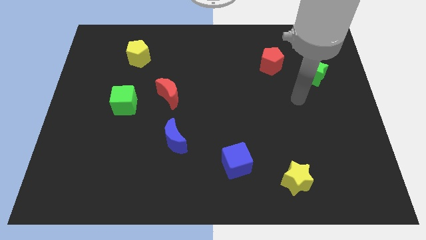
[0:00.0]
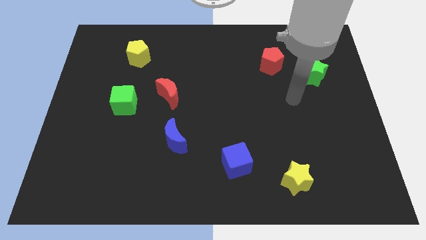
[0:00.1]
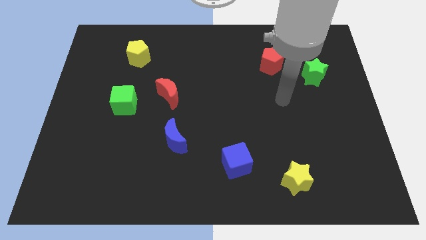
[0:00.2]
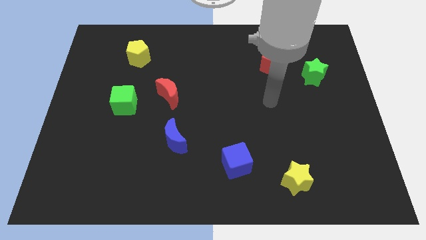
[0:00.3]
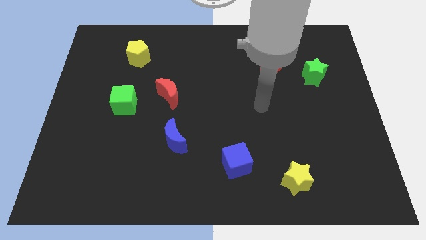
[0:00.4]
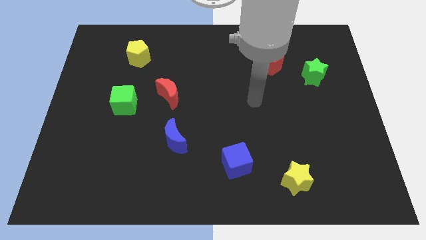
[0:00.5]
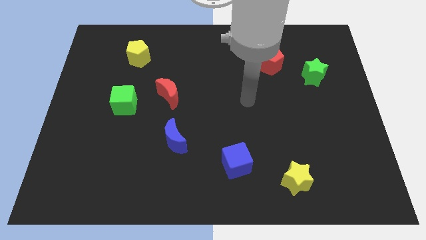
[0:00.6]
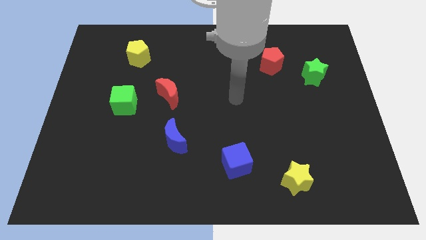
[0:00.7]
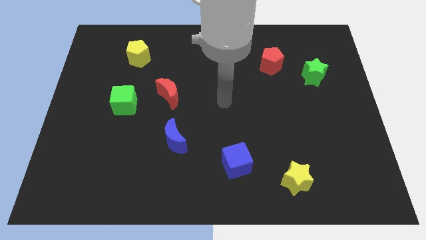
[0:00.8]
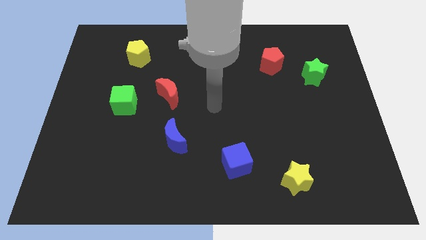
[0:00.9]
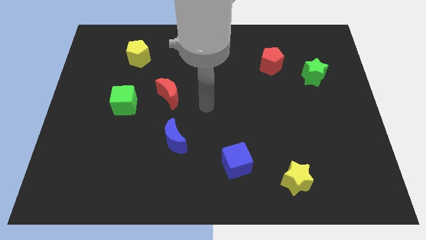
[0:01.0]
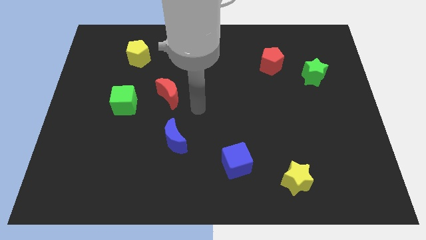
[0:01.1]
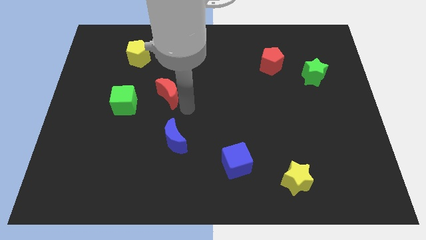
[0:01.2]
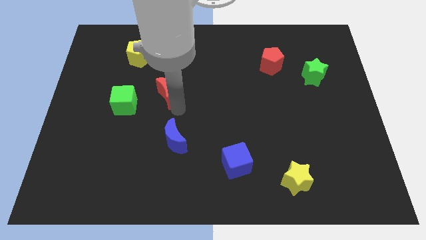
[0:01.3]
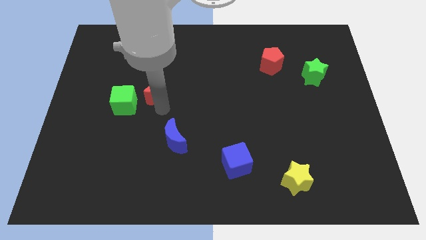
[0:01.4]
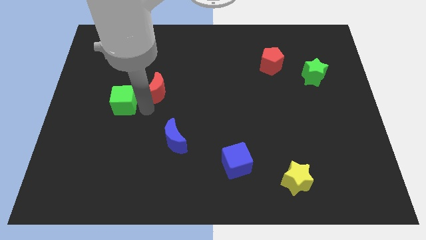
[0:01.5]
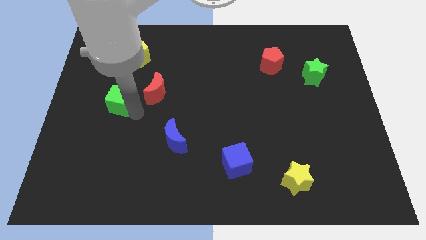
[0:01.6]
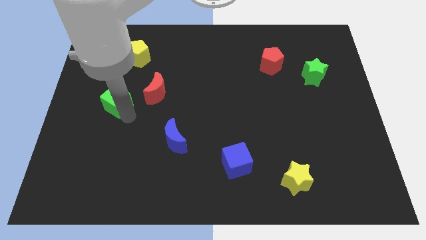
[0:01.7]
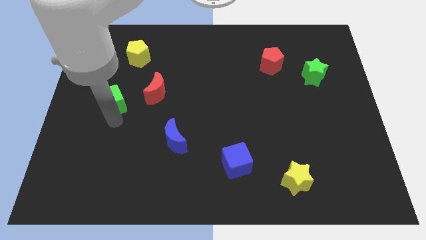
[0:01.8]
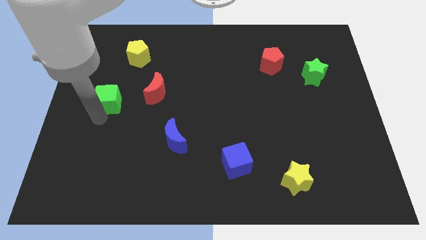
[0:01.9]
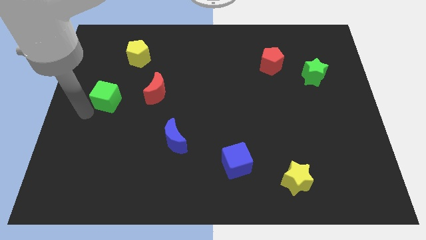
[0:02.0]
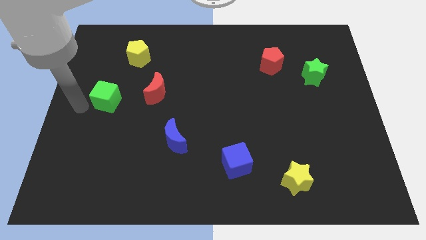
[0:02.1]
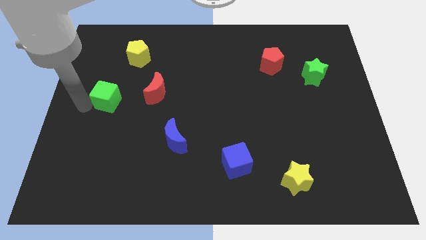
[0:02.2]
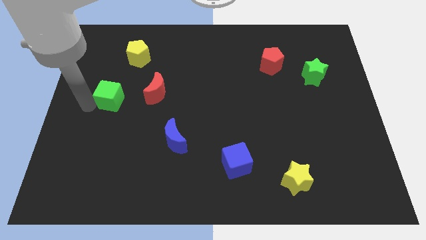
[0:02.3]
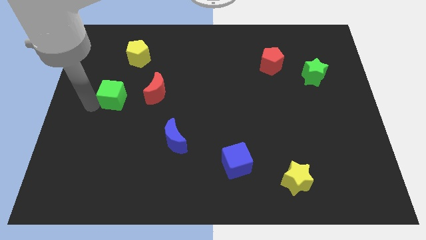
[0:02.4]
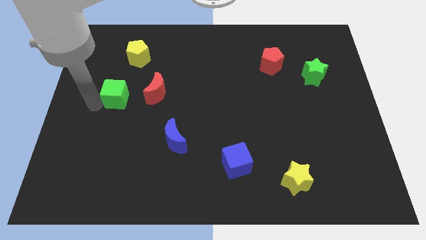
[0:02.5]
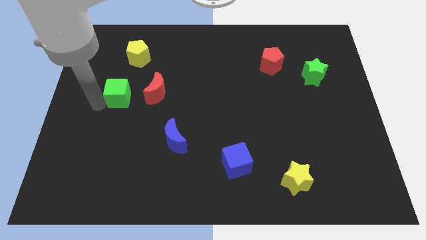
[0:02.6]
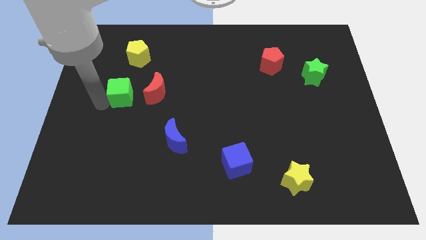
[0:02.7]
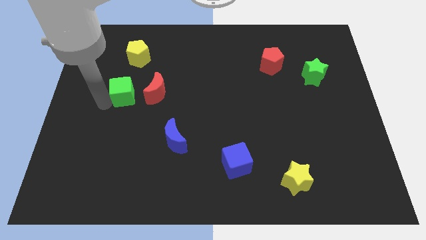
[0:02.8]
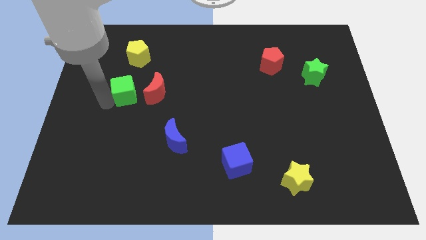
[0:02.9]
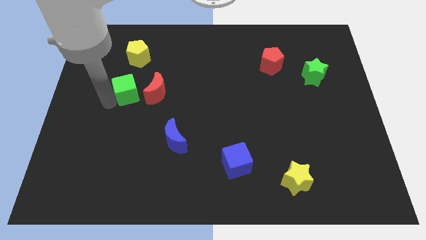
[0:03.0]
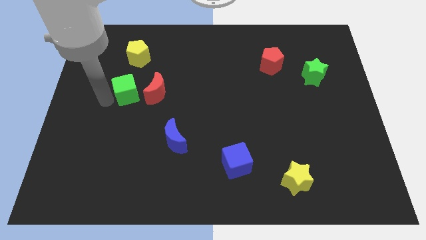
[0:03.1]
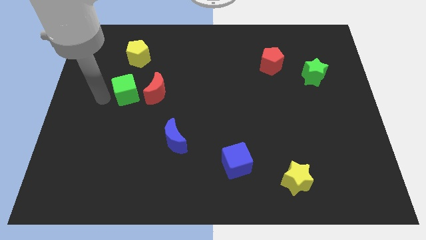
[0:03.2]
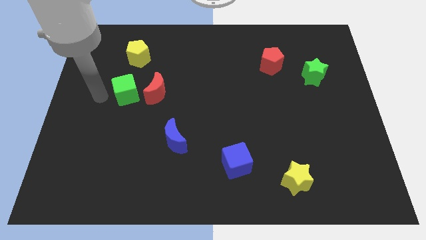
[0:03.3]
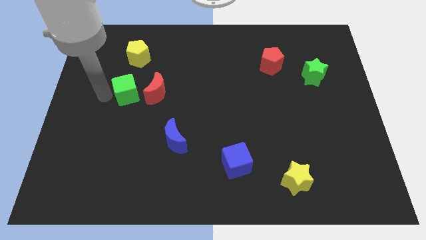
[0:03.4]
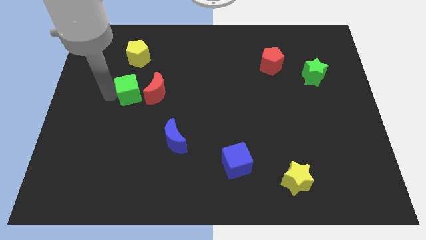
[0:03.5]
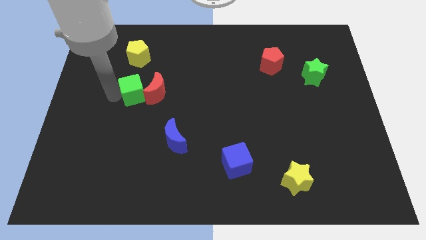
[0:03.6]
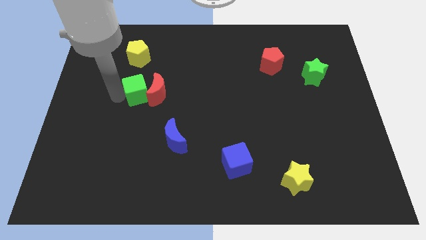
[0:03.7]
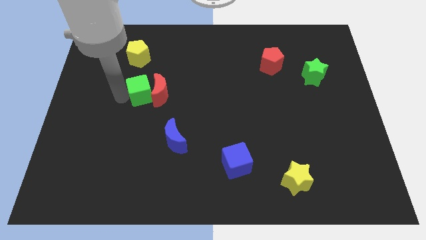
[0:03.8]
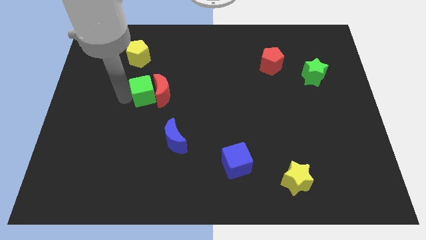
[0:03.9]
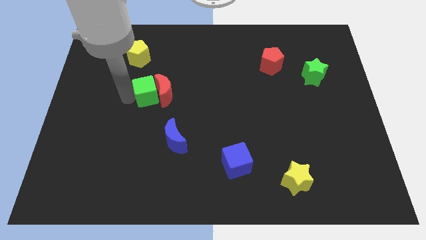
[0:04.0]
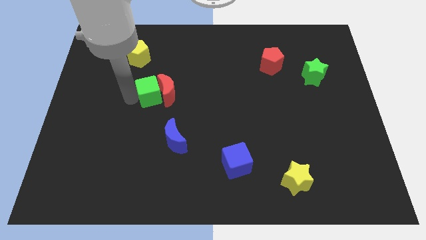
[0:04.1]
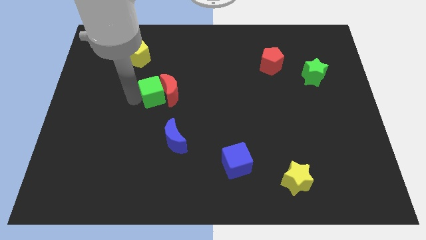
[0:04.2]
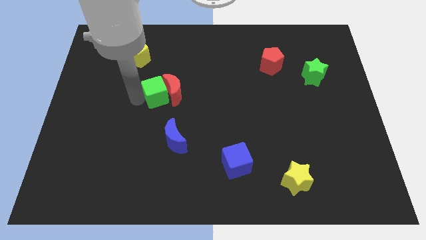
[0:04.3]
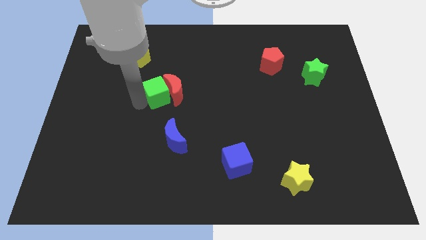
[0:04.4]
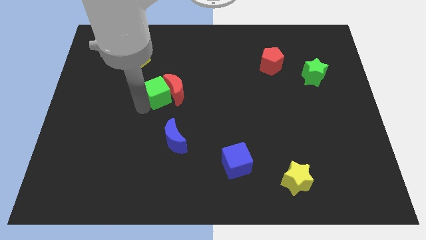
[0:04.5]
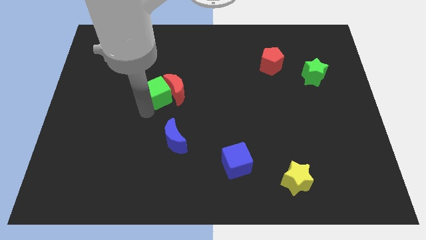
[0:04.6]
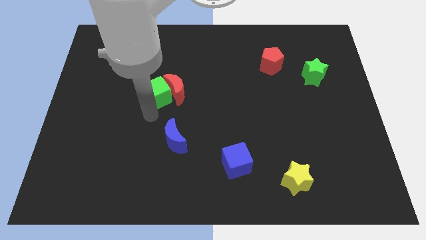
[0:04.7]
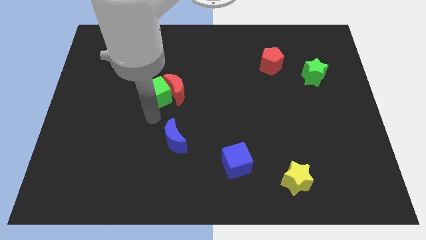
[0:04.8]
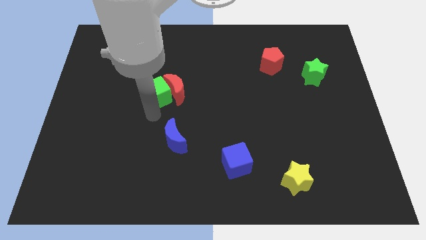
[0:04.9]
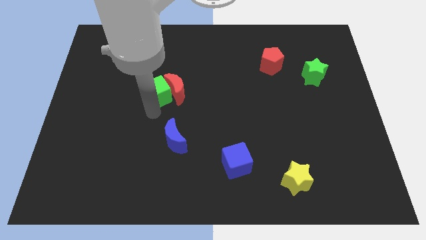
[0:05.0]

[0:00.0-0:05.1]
slide the green cube somewhat diagonally up and right

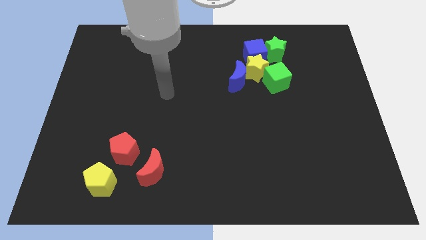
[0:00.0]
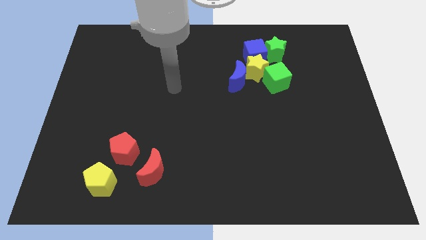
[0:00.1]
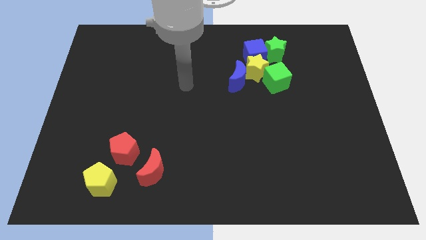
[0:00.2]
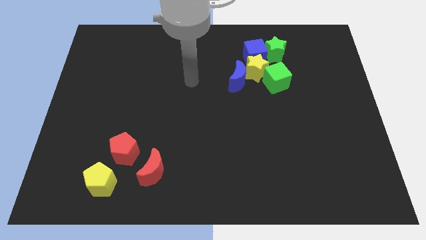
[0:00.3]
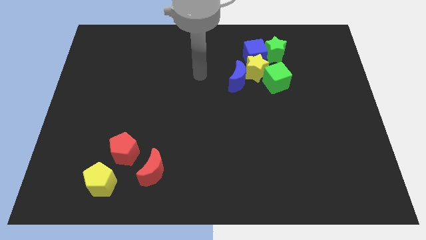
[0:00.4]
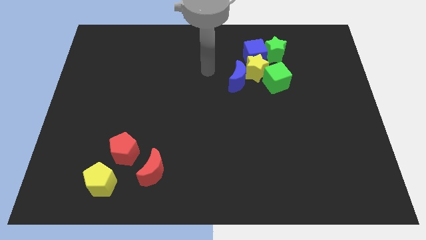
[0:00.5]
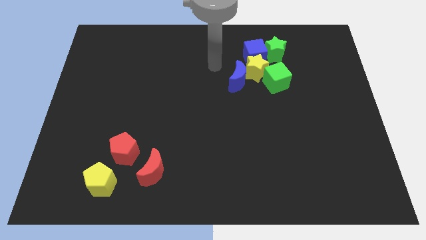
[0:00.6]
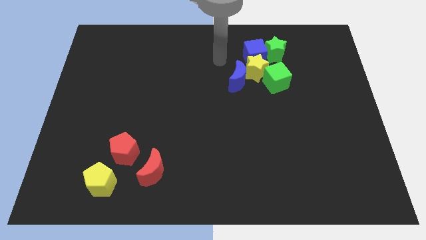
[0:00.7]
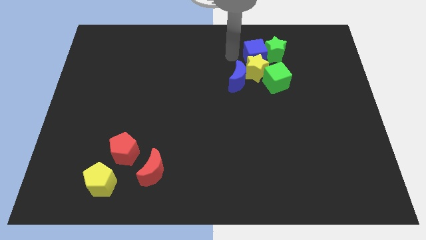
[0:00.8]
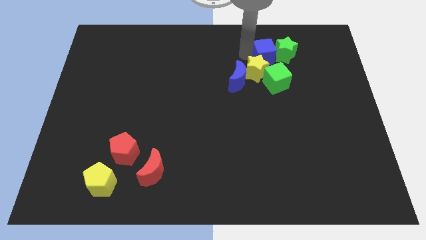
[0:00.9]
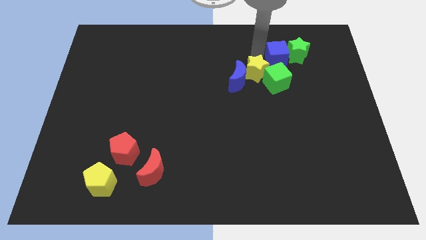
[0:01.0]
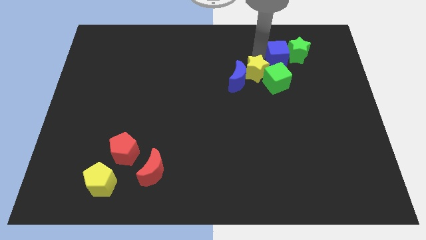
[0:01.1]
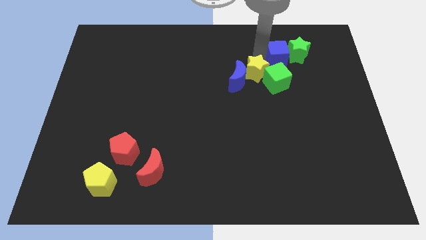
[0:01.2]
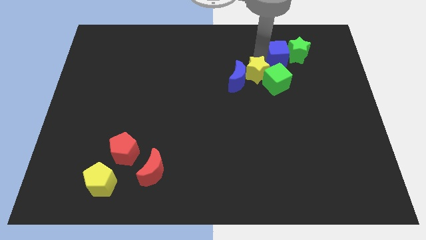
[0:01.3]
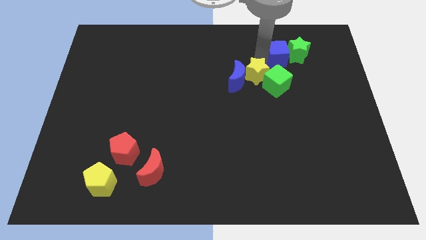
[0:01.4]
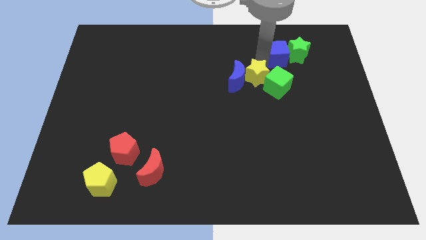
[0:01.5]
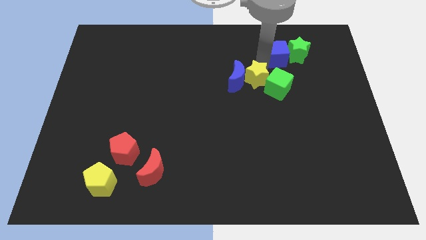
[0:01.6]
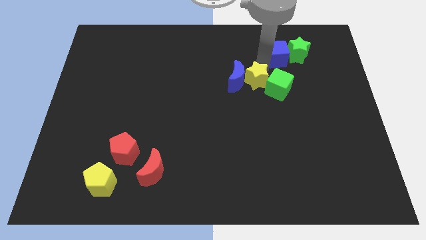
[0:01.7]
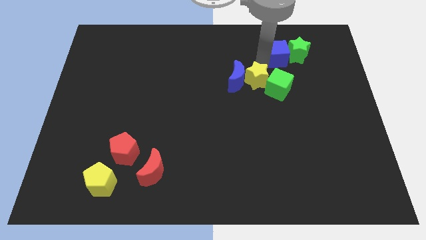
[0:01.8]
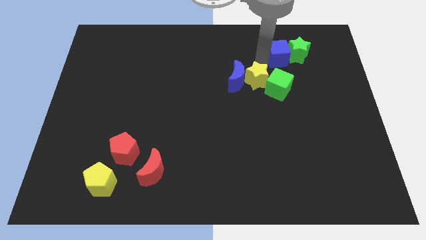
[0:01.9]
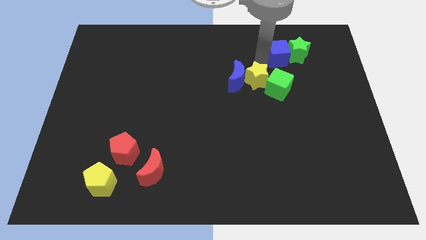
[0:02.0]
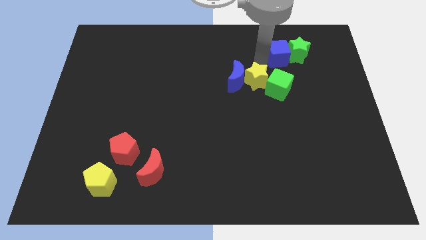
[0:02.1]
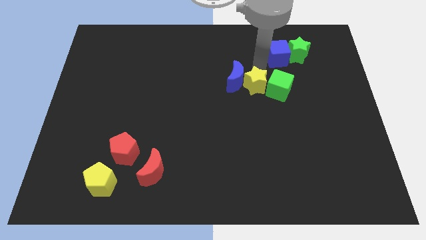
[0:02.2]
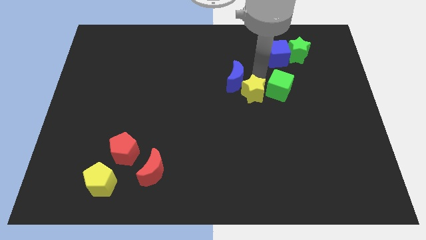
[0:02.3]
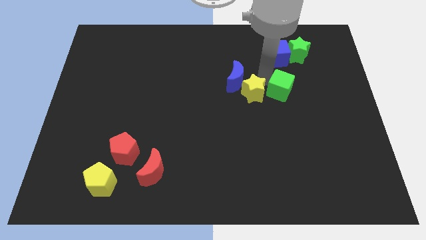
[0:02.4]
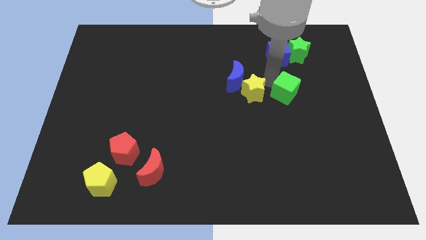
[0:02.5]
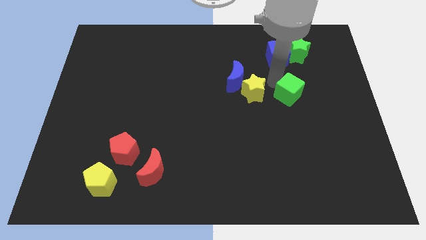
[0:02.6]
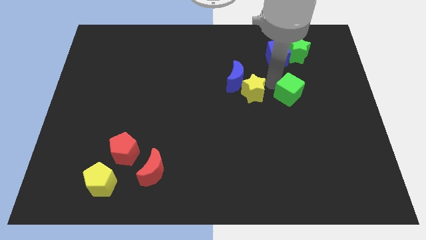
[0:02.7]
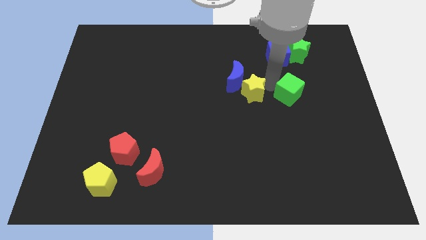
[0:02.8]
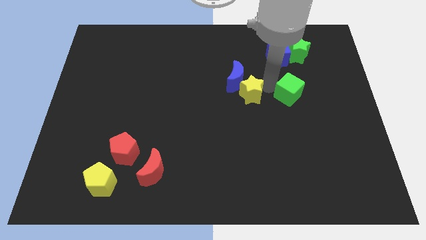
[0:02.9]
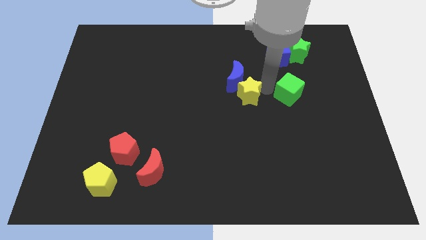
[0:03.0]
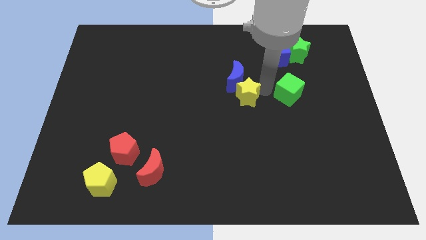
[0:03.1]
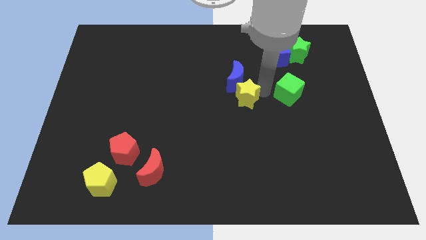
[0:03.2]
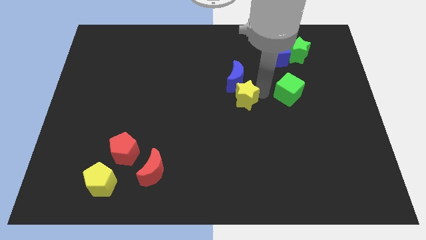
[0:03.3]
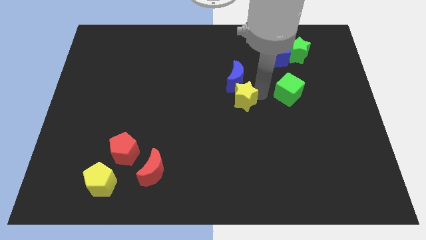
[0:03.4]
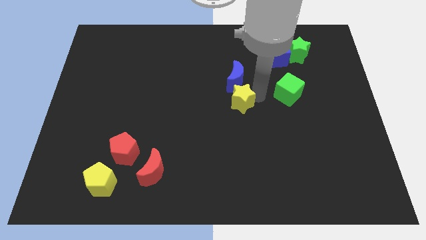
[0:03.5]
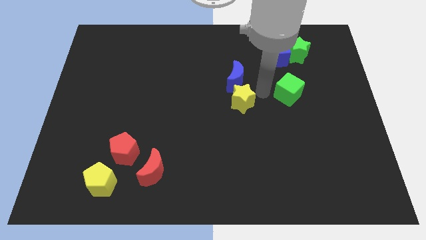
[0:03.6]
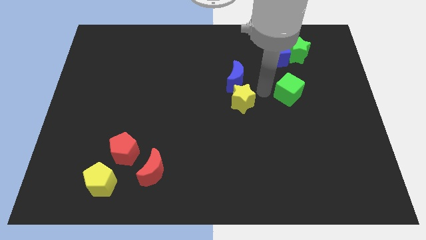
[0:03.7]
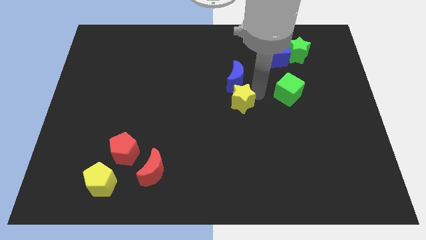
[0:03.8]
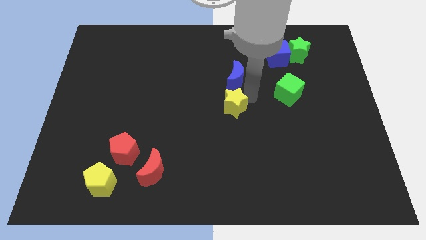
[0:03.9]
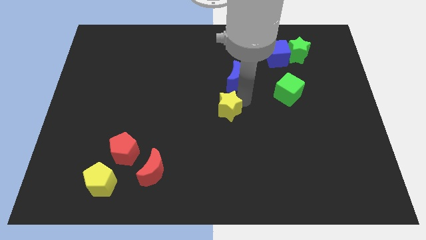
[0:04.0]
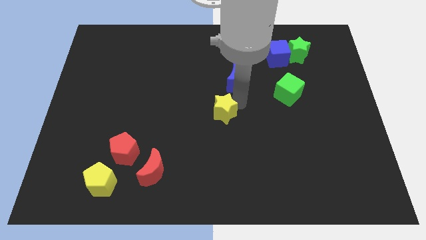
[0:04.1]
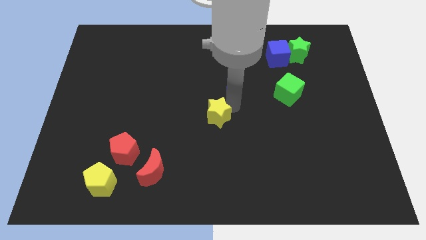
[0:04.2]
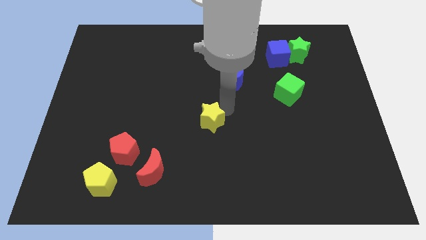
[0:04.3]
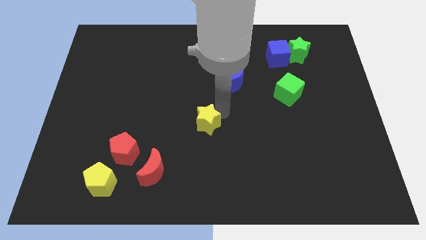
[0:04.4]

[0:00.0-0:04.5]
move the yellow star down and left diagonally
